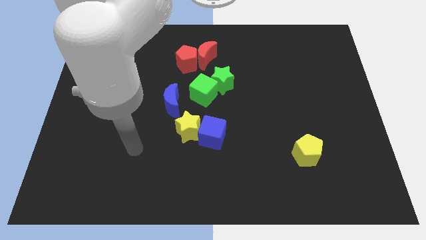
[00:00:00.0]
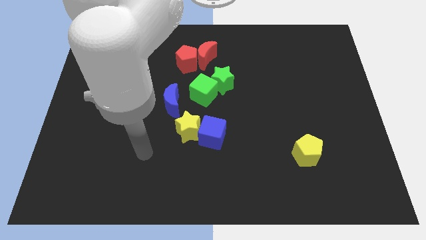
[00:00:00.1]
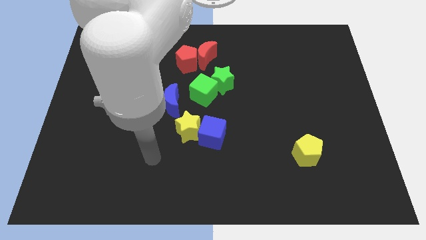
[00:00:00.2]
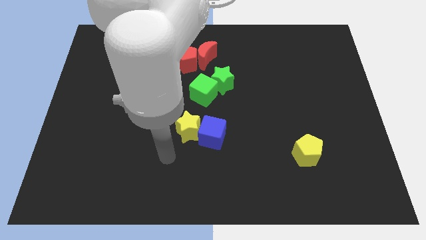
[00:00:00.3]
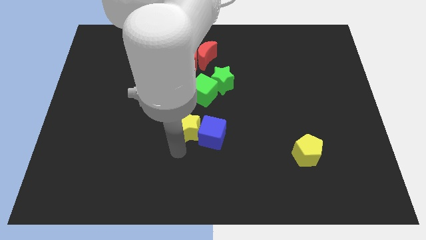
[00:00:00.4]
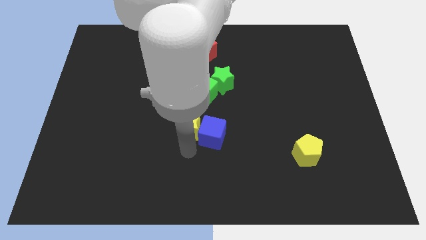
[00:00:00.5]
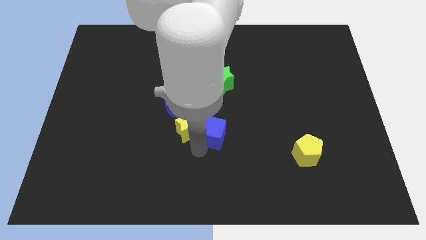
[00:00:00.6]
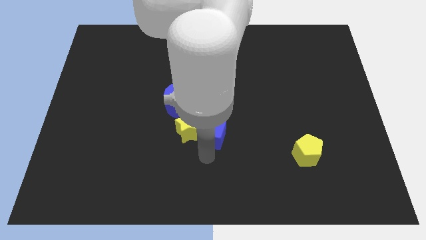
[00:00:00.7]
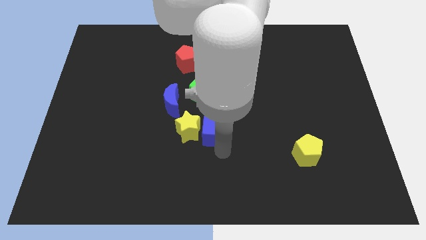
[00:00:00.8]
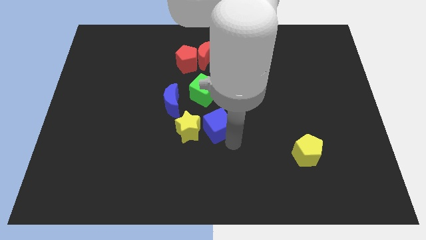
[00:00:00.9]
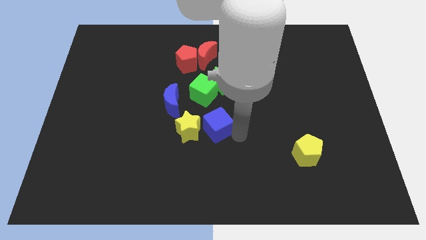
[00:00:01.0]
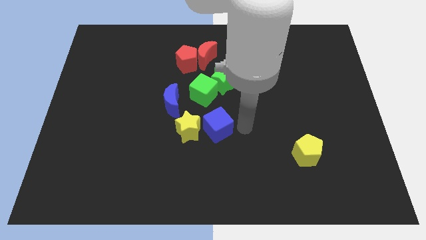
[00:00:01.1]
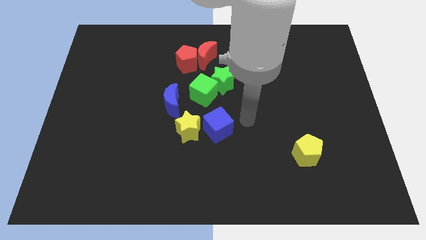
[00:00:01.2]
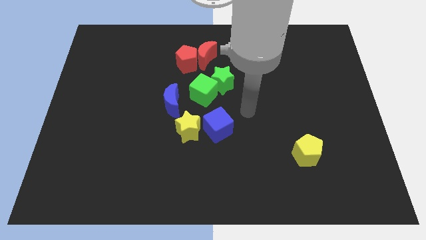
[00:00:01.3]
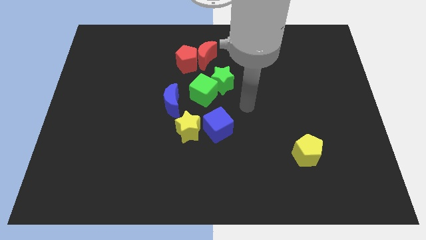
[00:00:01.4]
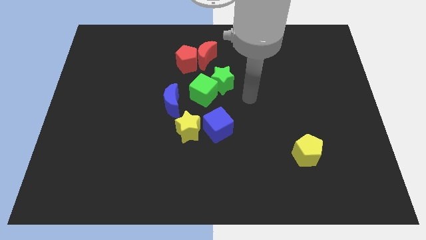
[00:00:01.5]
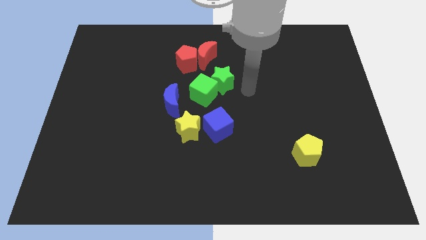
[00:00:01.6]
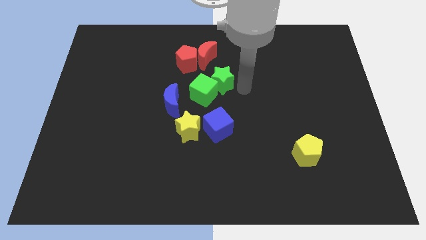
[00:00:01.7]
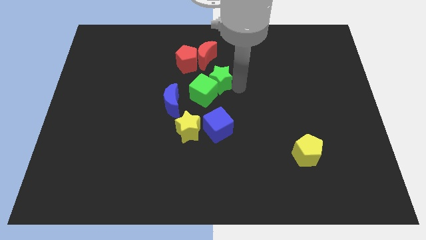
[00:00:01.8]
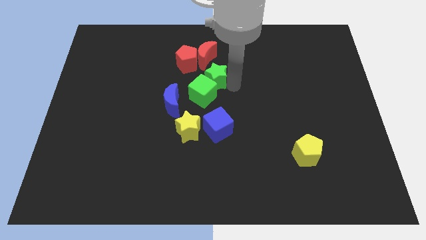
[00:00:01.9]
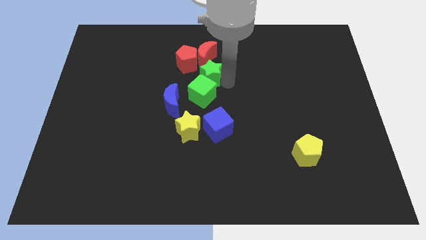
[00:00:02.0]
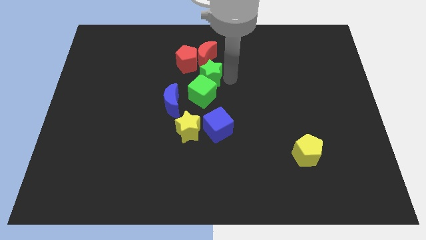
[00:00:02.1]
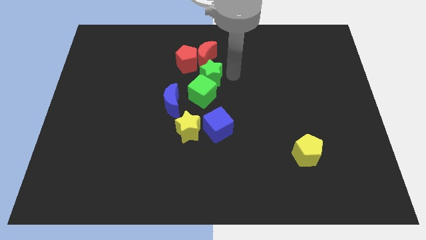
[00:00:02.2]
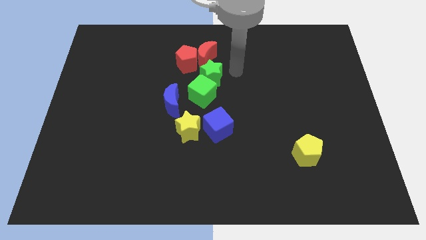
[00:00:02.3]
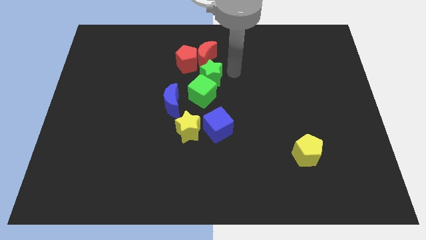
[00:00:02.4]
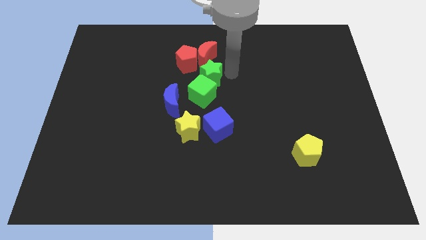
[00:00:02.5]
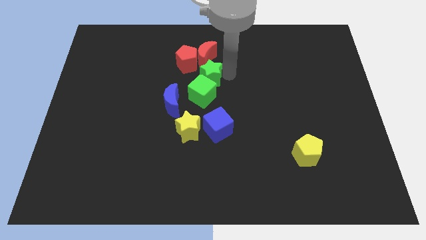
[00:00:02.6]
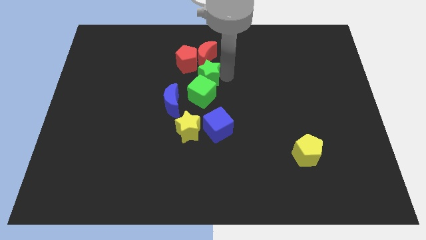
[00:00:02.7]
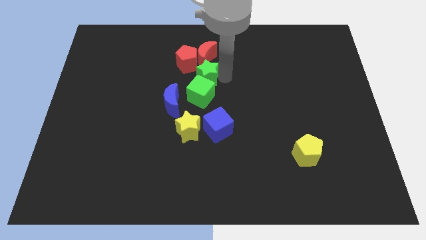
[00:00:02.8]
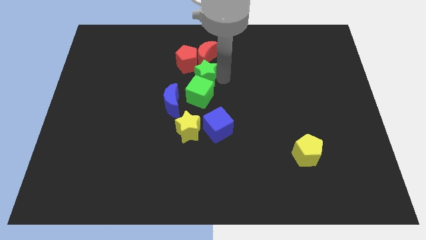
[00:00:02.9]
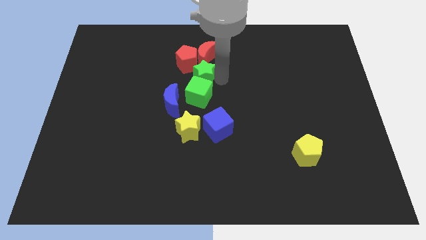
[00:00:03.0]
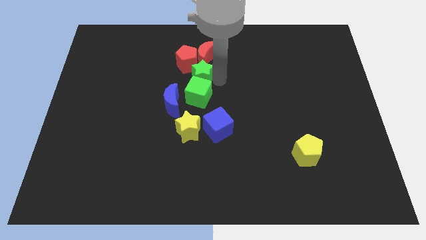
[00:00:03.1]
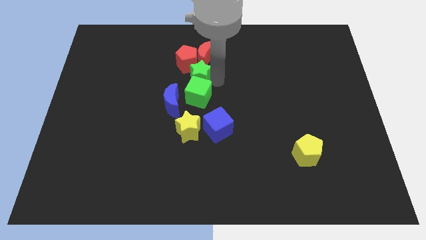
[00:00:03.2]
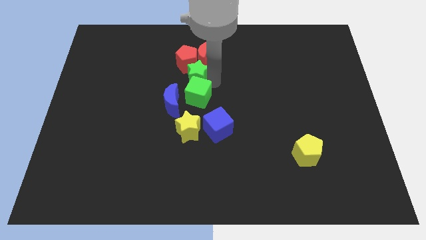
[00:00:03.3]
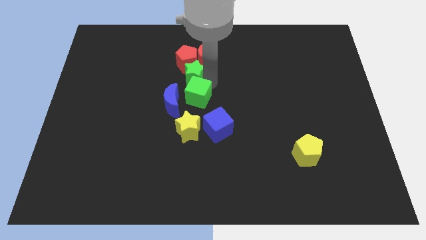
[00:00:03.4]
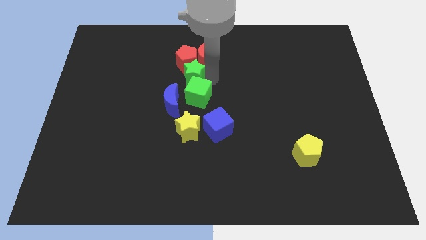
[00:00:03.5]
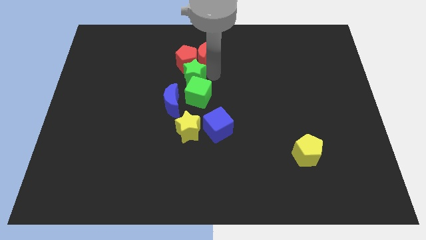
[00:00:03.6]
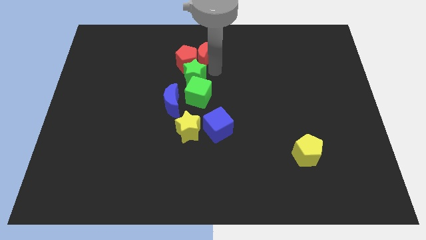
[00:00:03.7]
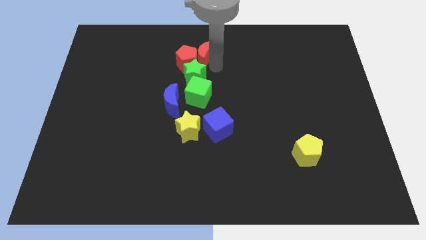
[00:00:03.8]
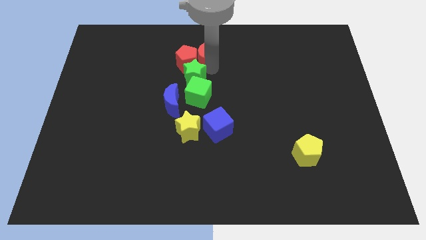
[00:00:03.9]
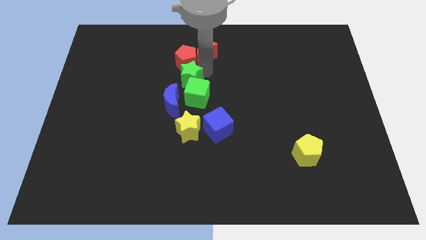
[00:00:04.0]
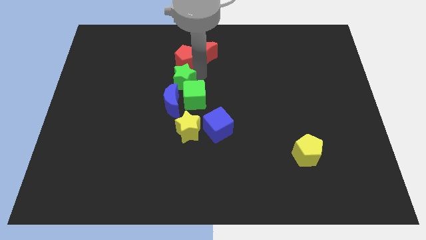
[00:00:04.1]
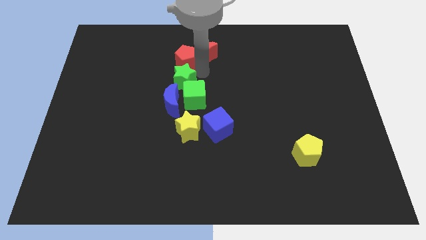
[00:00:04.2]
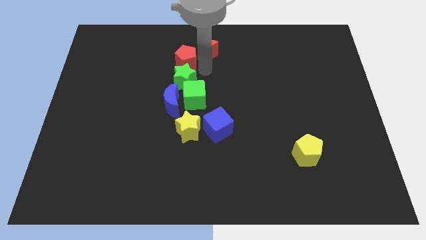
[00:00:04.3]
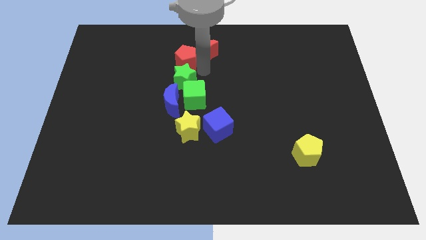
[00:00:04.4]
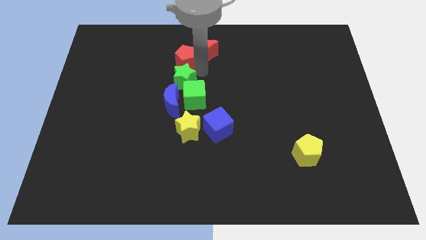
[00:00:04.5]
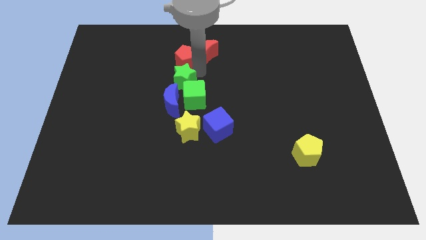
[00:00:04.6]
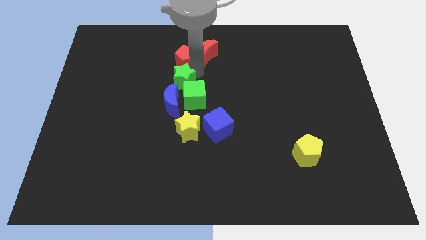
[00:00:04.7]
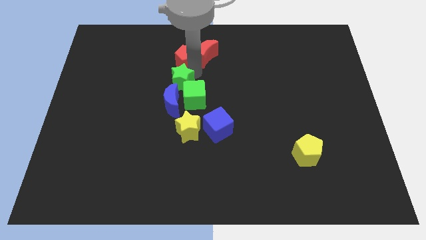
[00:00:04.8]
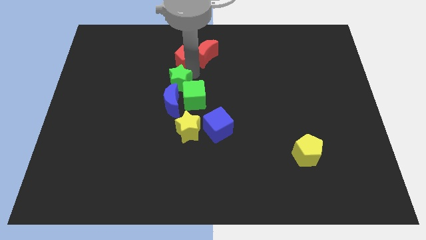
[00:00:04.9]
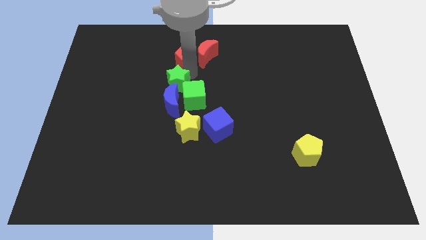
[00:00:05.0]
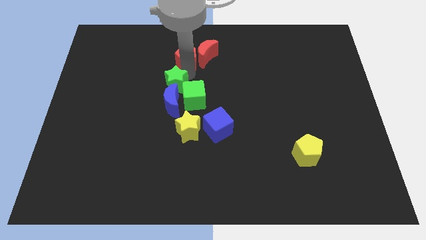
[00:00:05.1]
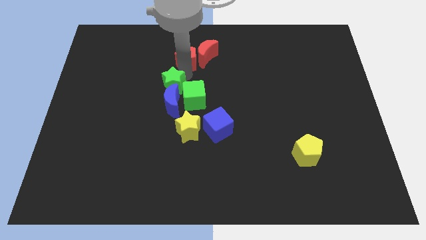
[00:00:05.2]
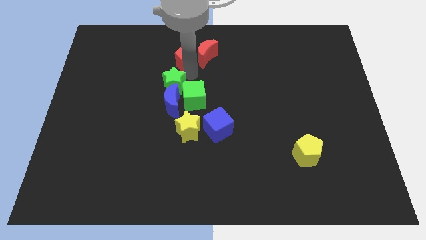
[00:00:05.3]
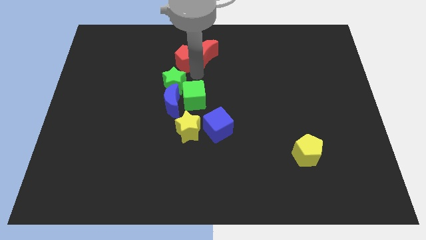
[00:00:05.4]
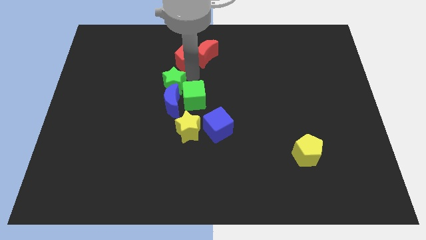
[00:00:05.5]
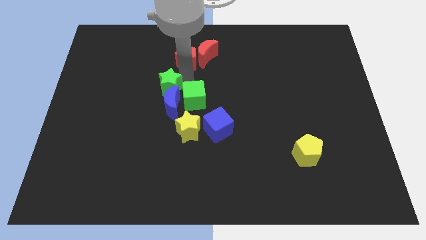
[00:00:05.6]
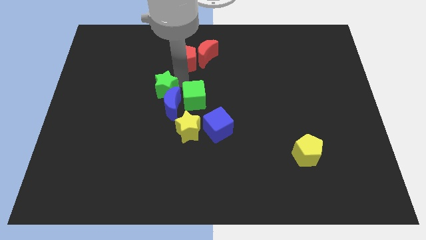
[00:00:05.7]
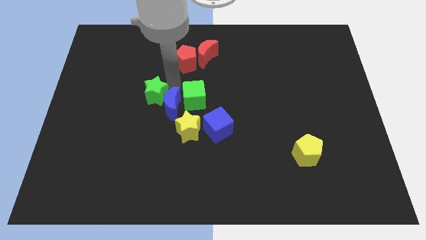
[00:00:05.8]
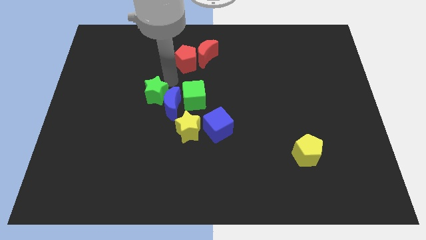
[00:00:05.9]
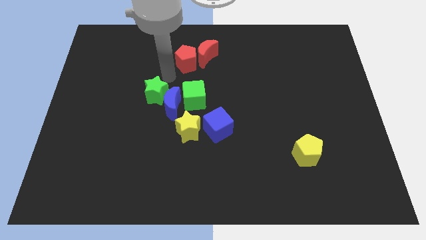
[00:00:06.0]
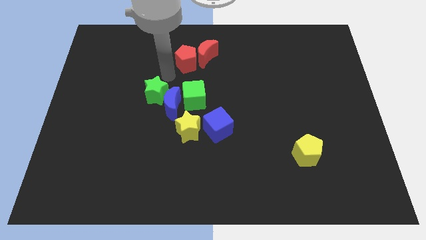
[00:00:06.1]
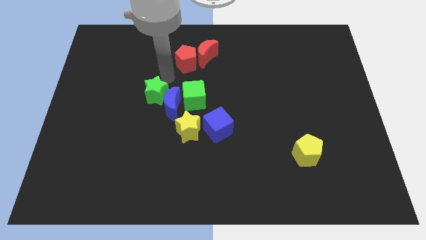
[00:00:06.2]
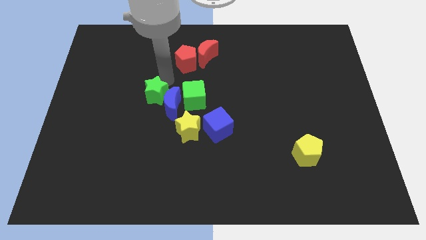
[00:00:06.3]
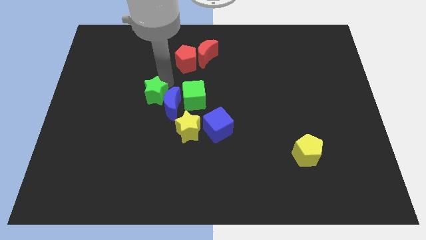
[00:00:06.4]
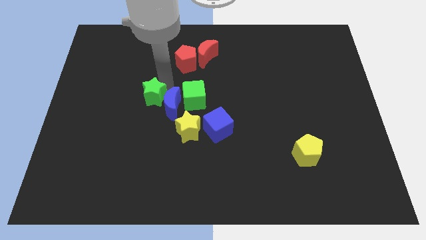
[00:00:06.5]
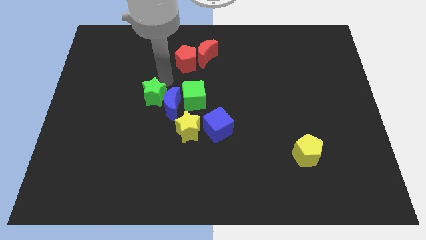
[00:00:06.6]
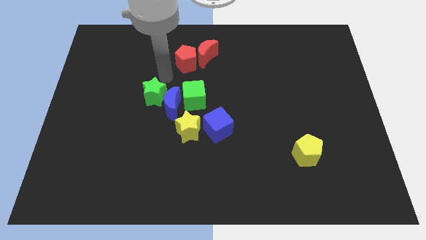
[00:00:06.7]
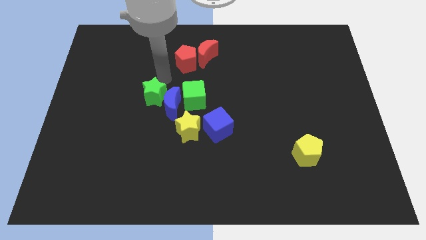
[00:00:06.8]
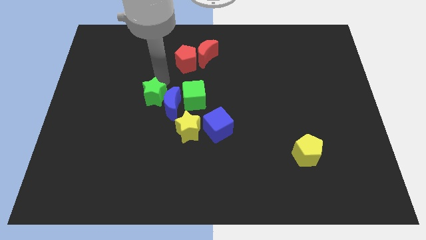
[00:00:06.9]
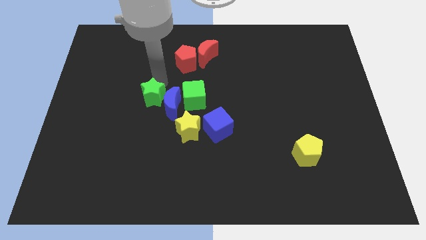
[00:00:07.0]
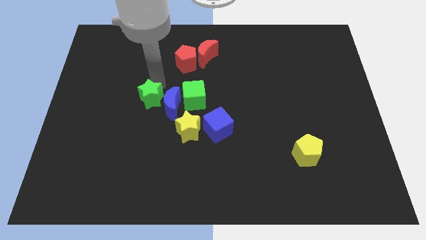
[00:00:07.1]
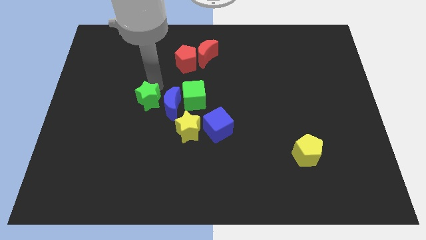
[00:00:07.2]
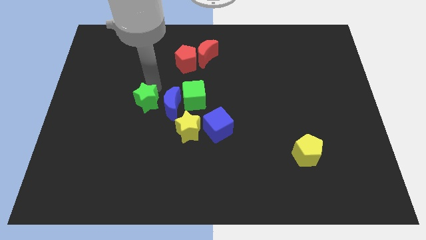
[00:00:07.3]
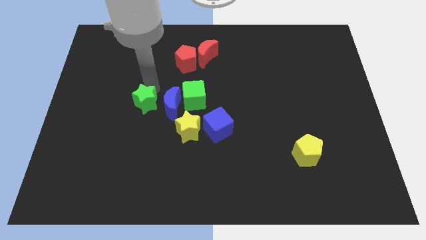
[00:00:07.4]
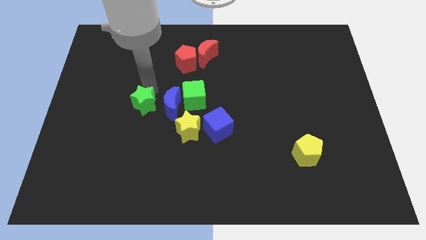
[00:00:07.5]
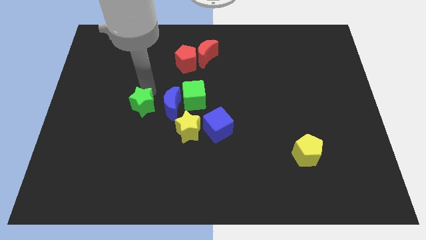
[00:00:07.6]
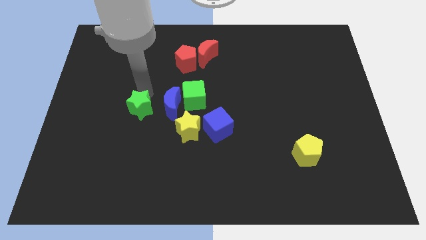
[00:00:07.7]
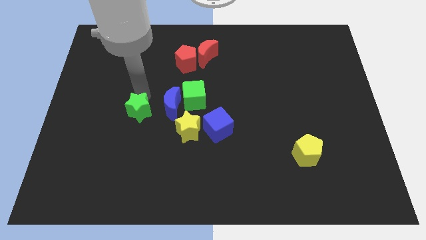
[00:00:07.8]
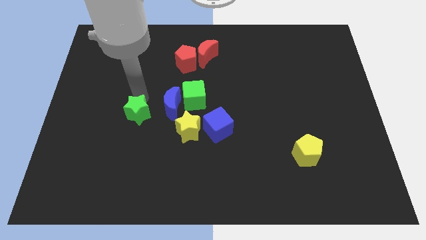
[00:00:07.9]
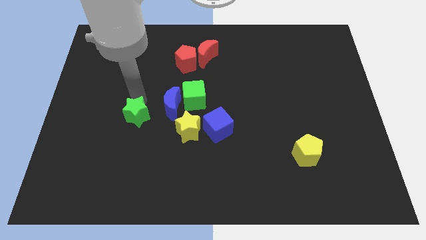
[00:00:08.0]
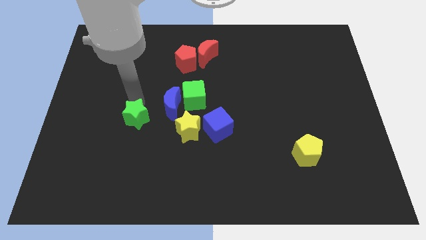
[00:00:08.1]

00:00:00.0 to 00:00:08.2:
push the green star downwards and left diagonally
